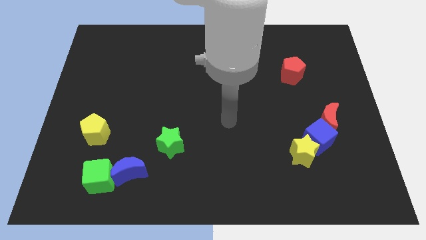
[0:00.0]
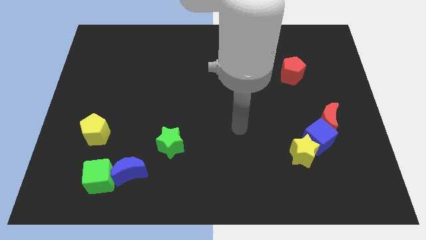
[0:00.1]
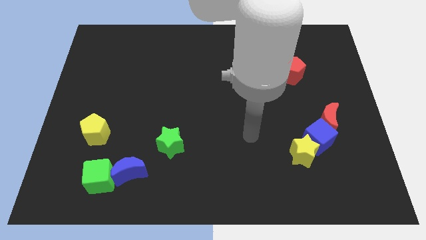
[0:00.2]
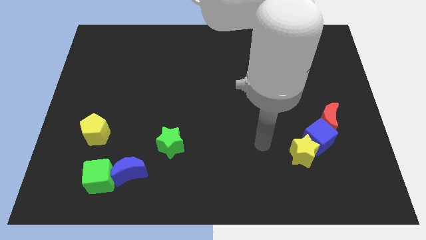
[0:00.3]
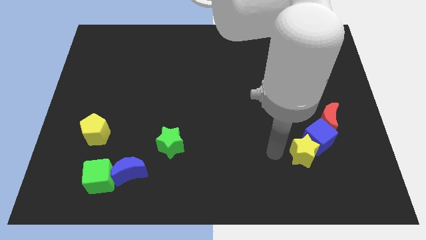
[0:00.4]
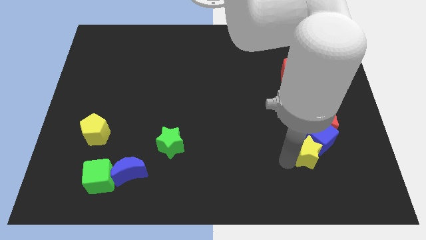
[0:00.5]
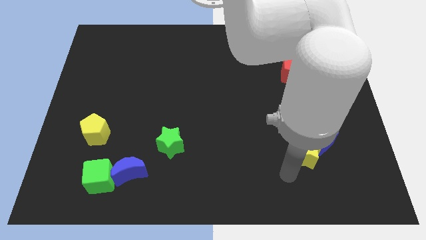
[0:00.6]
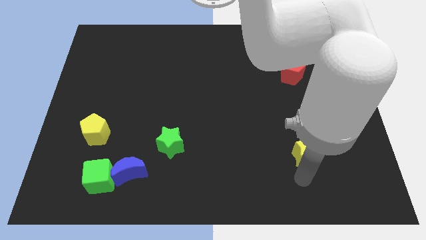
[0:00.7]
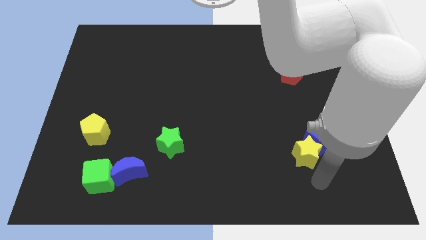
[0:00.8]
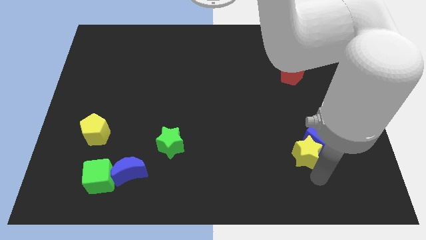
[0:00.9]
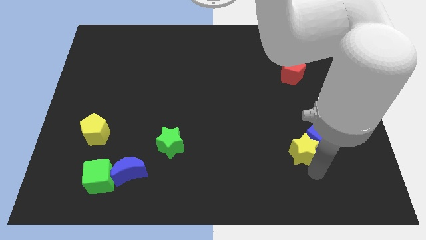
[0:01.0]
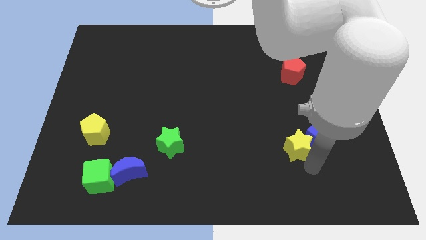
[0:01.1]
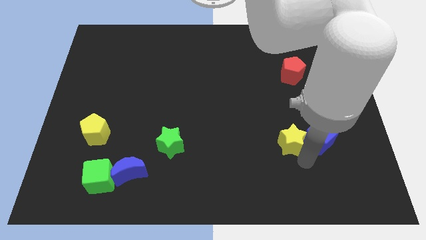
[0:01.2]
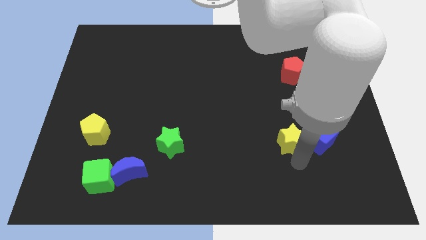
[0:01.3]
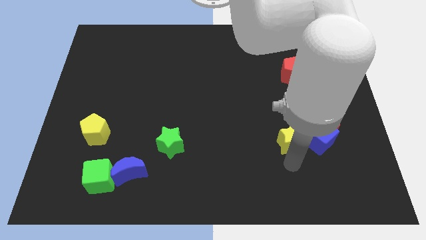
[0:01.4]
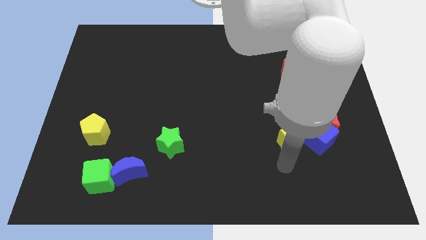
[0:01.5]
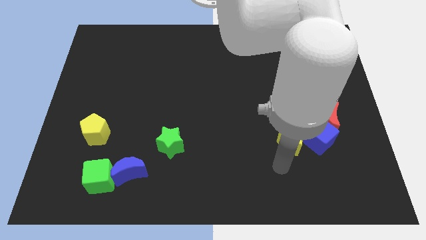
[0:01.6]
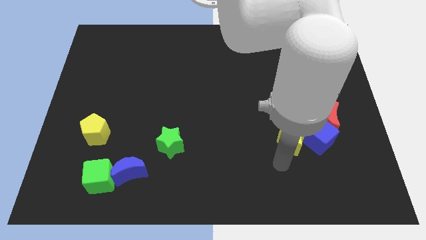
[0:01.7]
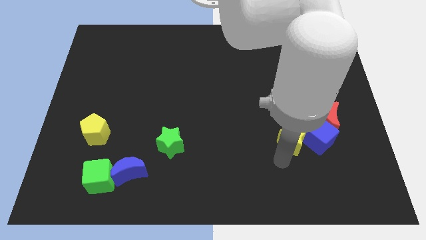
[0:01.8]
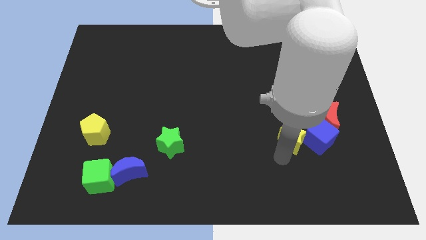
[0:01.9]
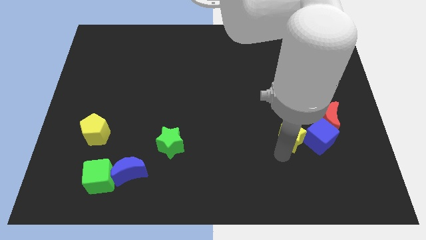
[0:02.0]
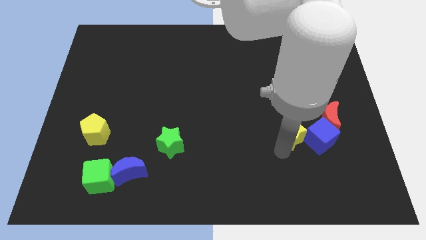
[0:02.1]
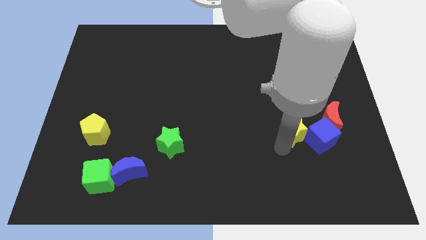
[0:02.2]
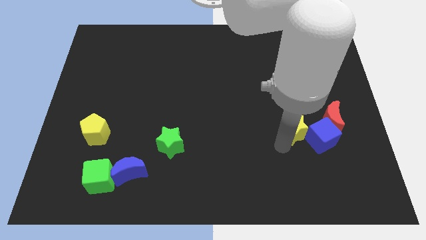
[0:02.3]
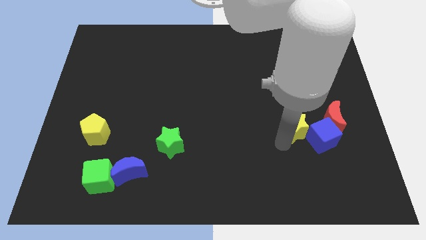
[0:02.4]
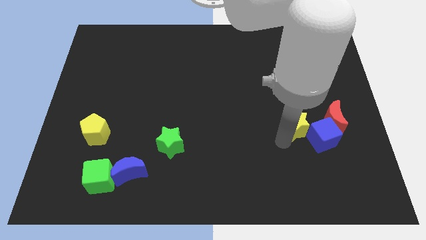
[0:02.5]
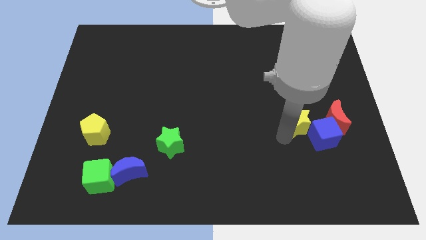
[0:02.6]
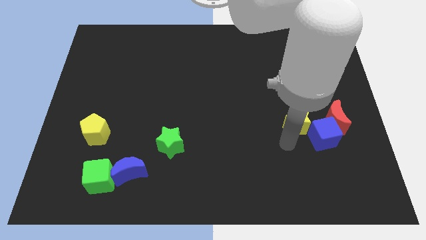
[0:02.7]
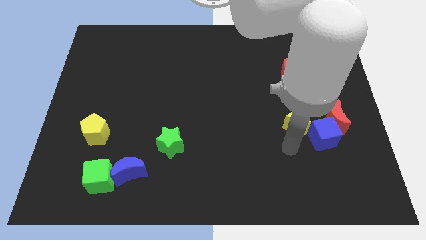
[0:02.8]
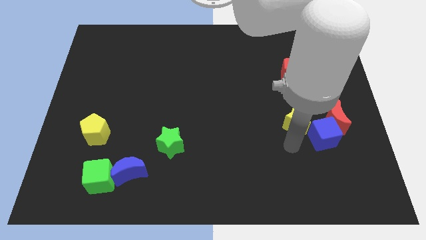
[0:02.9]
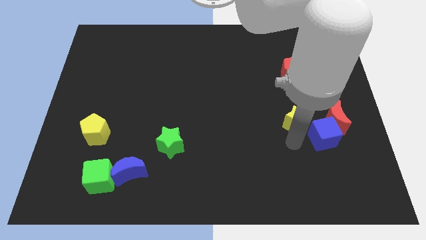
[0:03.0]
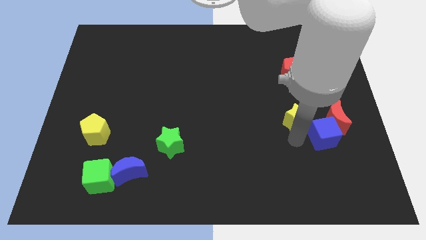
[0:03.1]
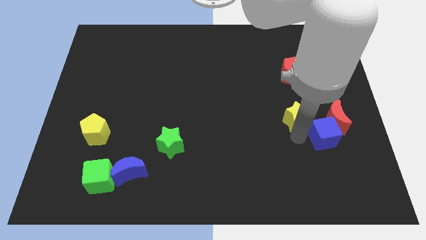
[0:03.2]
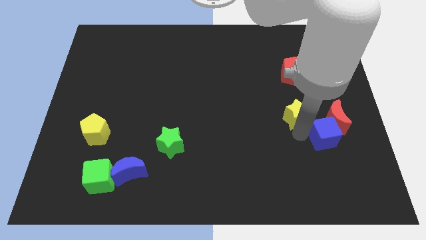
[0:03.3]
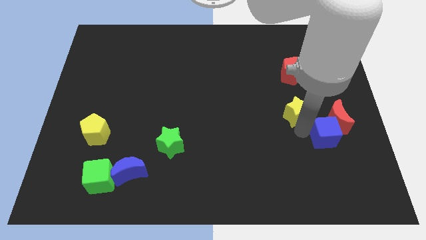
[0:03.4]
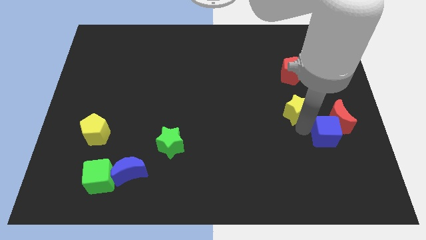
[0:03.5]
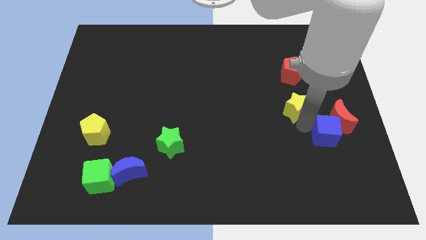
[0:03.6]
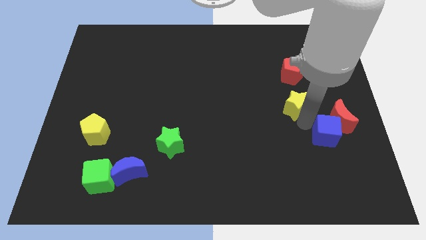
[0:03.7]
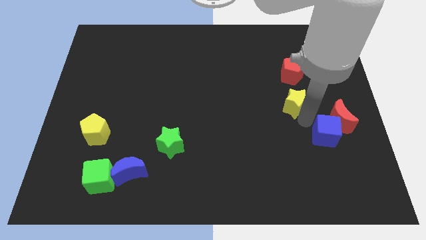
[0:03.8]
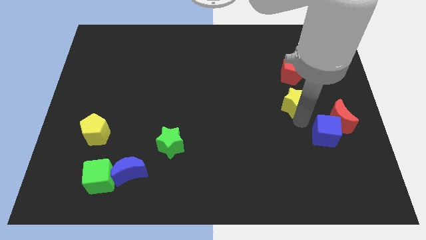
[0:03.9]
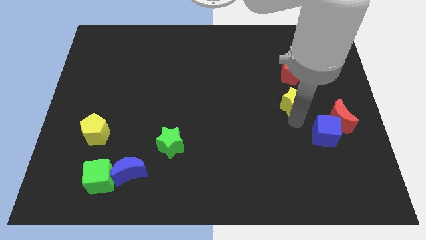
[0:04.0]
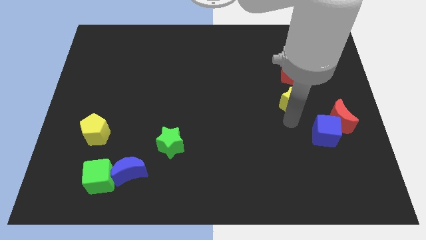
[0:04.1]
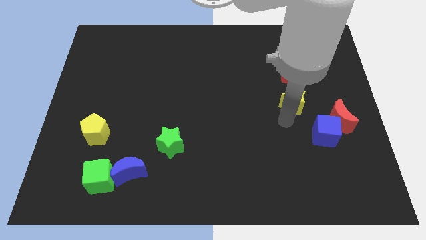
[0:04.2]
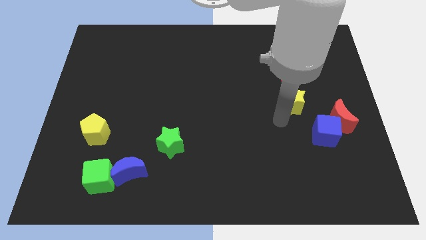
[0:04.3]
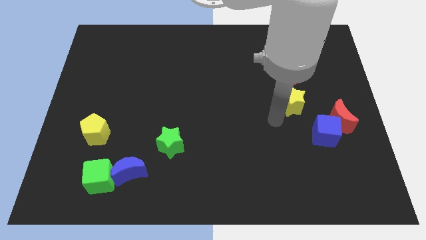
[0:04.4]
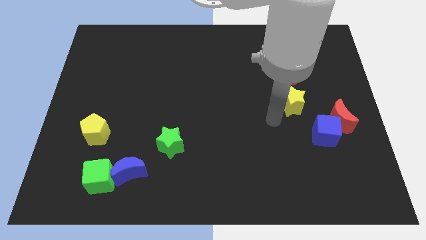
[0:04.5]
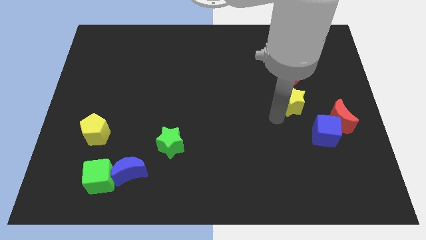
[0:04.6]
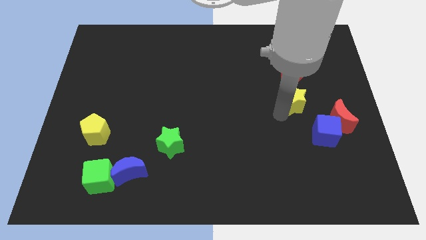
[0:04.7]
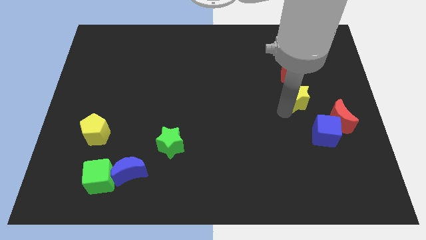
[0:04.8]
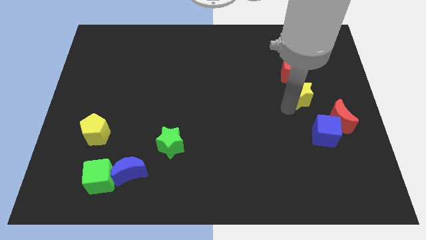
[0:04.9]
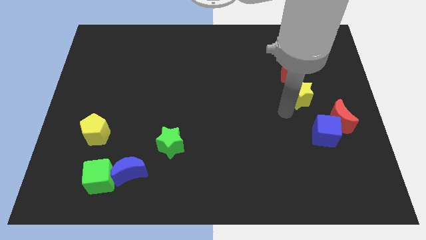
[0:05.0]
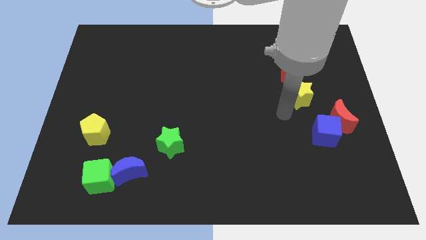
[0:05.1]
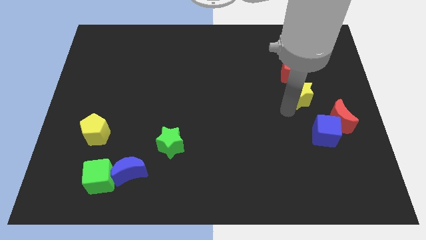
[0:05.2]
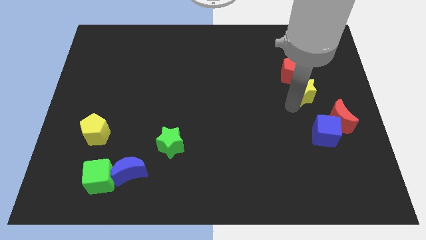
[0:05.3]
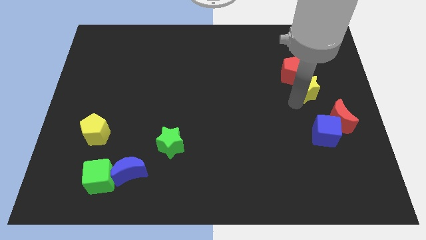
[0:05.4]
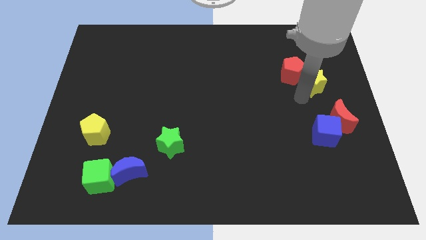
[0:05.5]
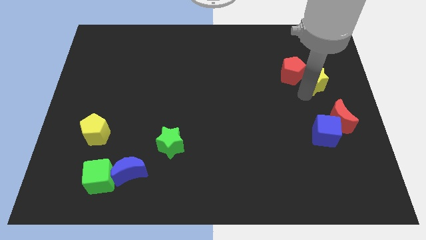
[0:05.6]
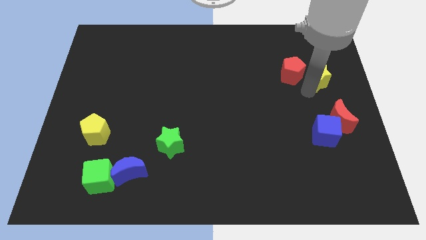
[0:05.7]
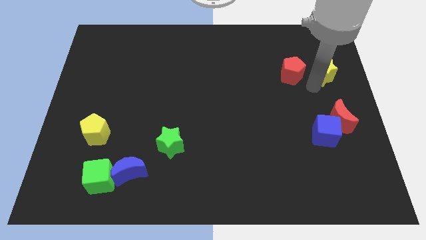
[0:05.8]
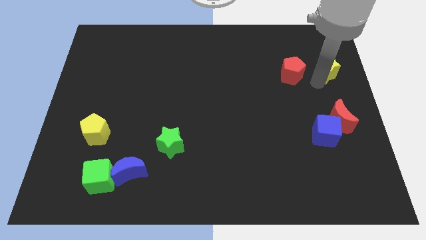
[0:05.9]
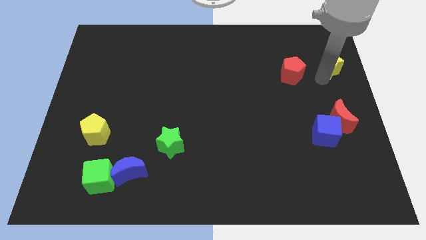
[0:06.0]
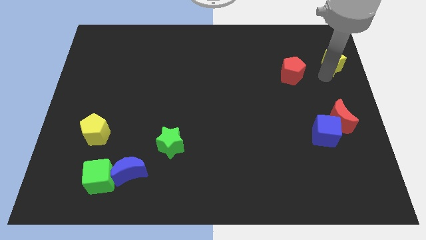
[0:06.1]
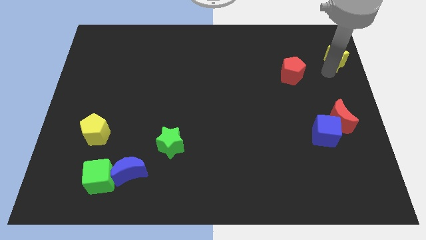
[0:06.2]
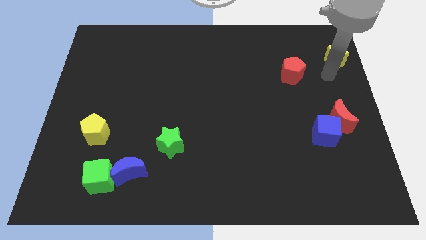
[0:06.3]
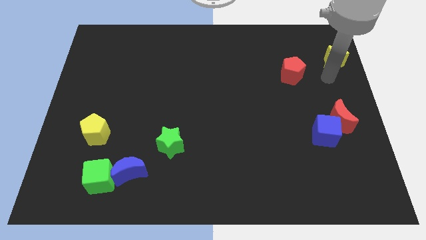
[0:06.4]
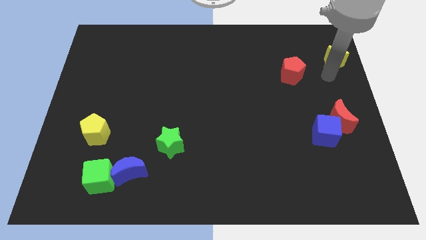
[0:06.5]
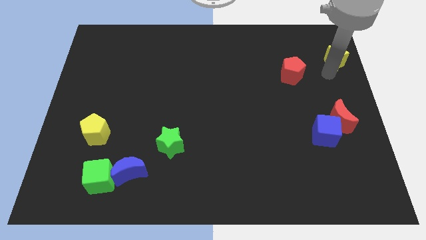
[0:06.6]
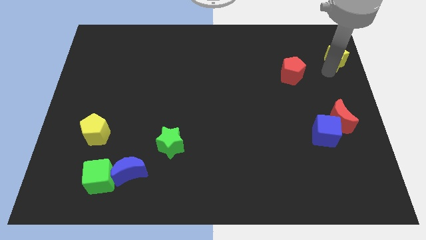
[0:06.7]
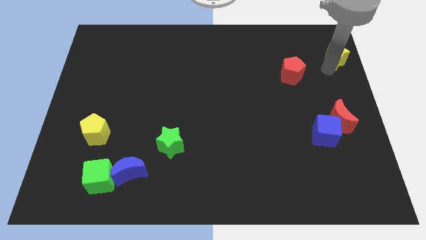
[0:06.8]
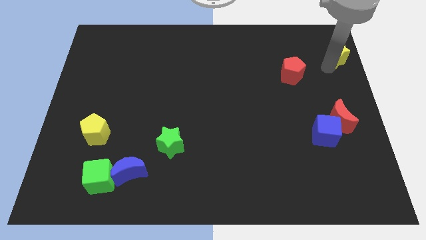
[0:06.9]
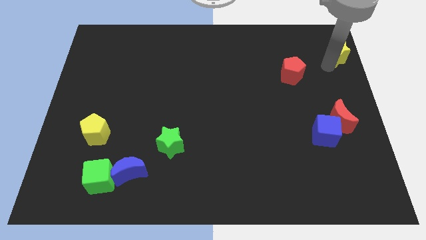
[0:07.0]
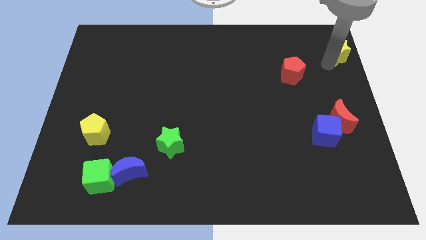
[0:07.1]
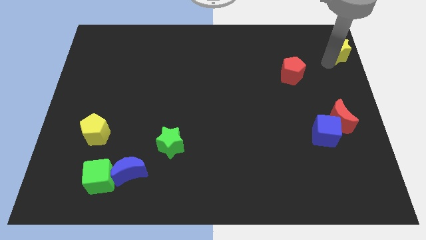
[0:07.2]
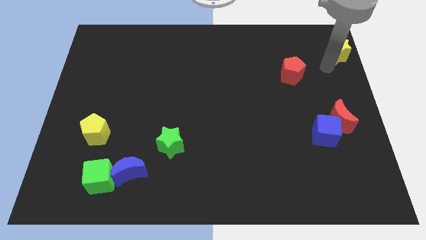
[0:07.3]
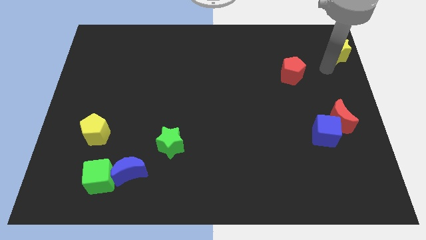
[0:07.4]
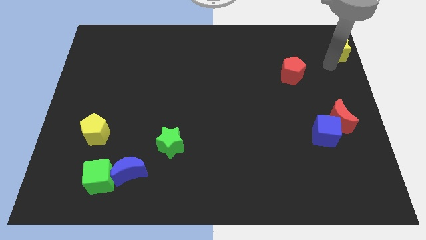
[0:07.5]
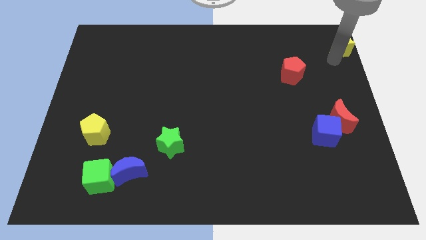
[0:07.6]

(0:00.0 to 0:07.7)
move the yellow star to the upper right corner
